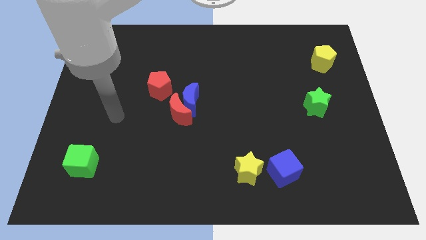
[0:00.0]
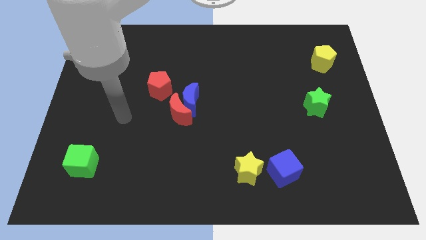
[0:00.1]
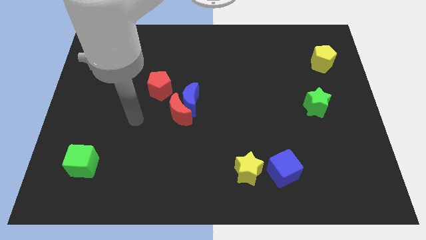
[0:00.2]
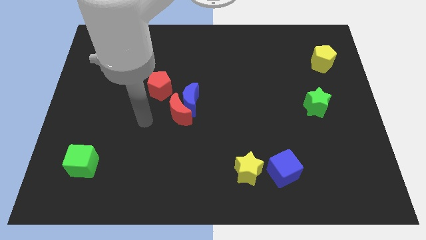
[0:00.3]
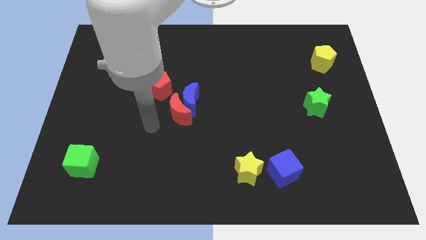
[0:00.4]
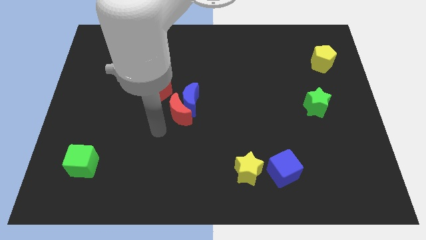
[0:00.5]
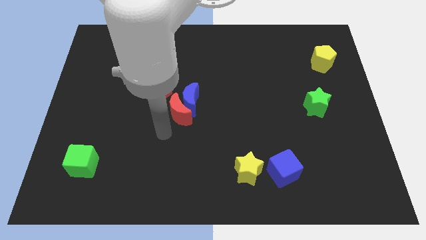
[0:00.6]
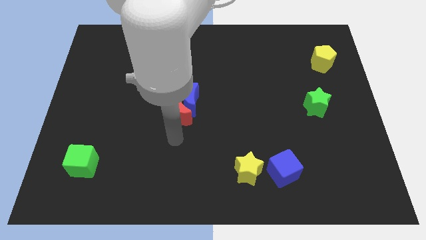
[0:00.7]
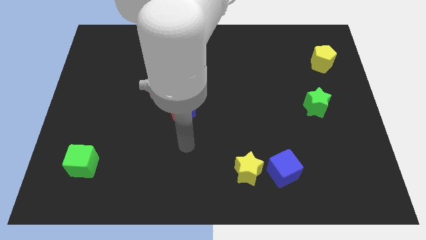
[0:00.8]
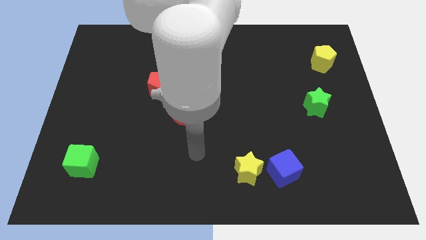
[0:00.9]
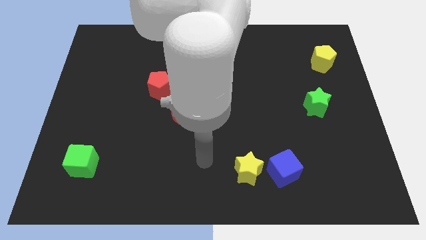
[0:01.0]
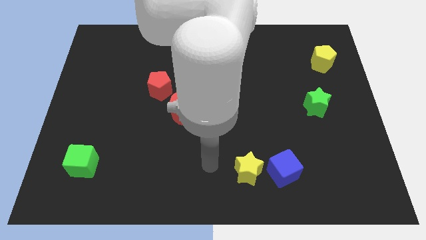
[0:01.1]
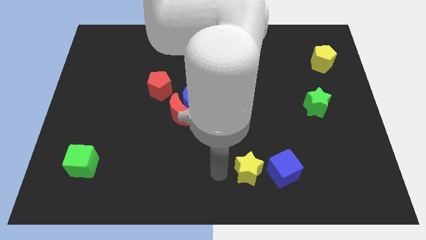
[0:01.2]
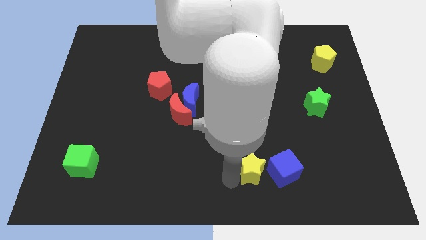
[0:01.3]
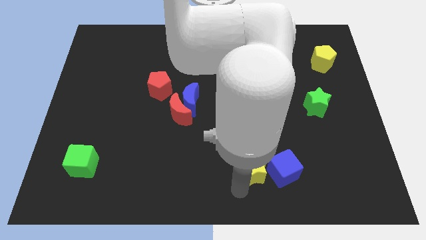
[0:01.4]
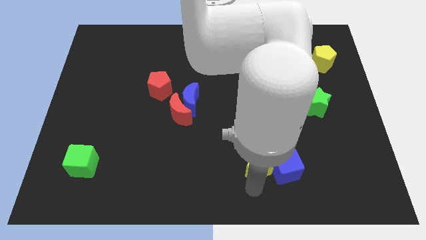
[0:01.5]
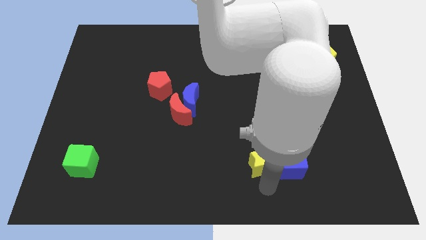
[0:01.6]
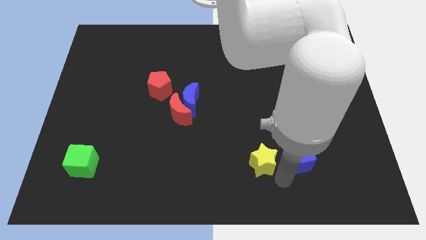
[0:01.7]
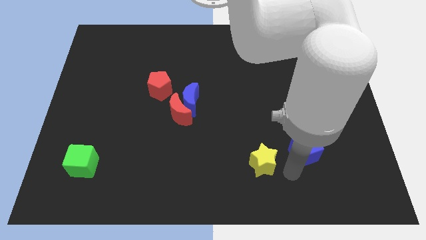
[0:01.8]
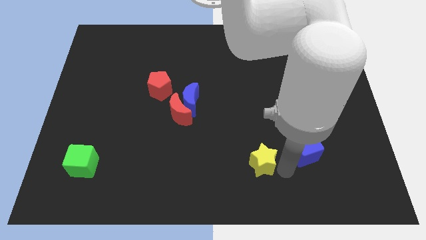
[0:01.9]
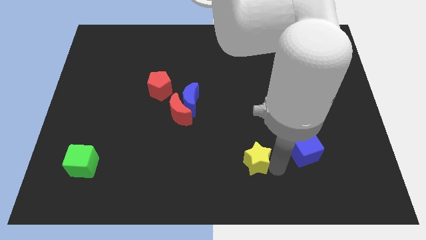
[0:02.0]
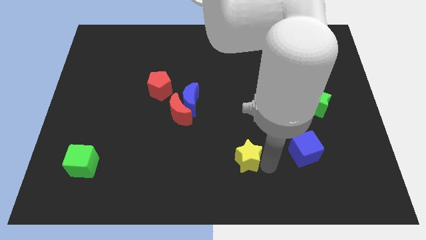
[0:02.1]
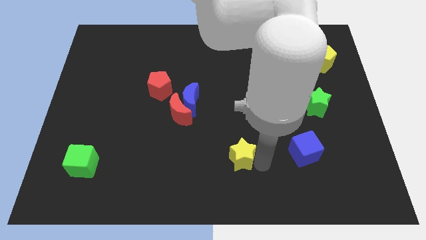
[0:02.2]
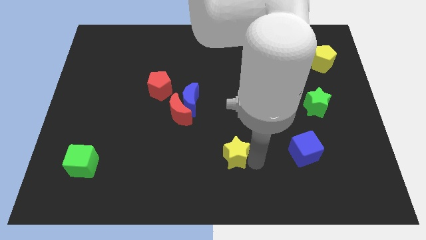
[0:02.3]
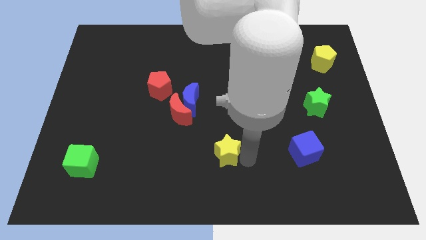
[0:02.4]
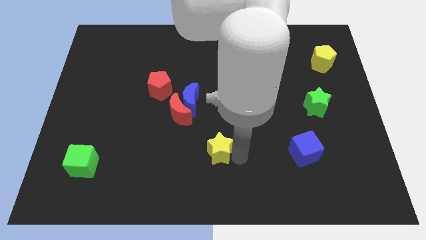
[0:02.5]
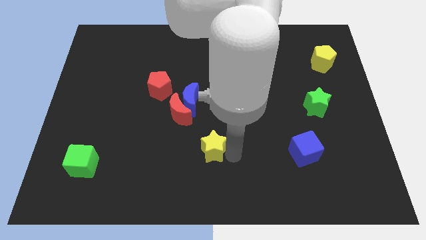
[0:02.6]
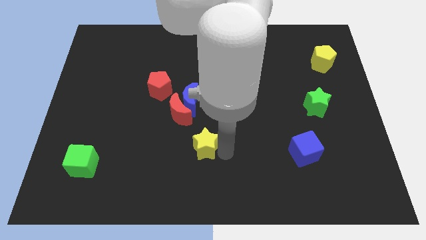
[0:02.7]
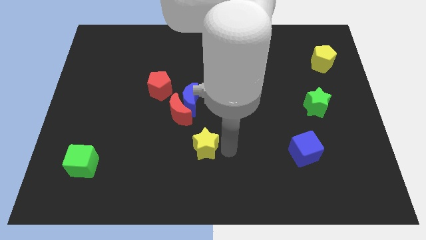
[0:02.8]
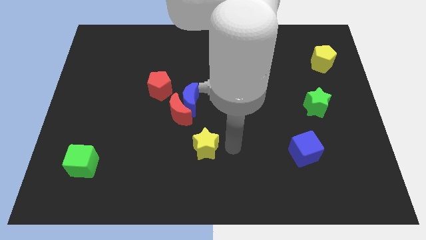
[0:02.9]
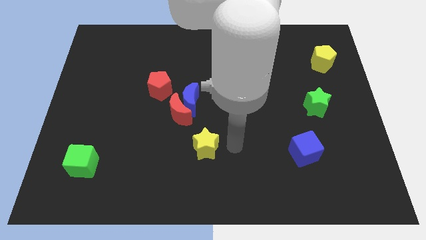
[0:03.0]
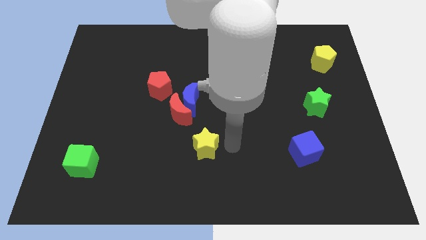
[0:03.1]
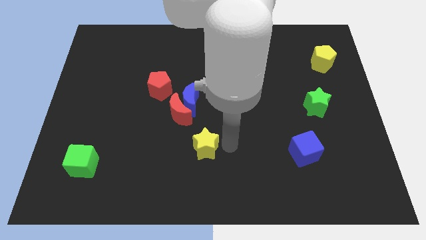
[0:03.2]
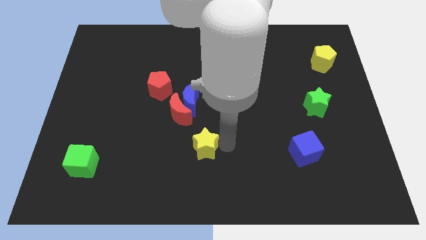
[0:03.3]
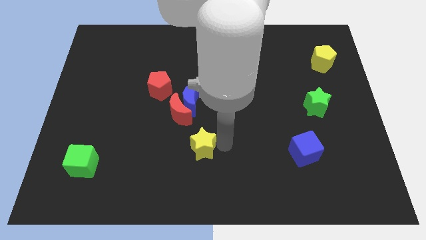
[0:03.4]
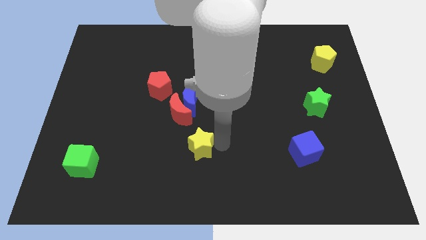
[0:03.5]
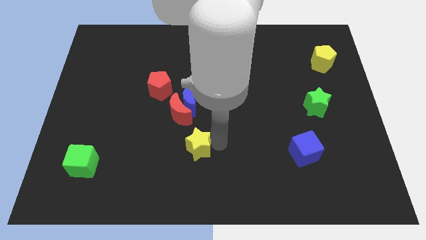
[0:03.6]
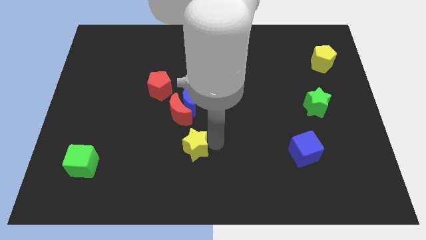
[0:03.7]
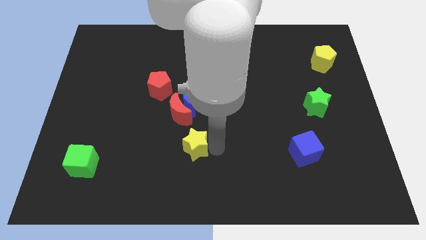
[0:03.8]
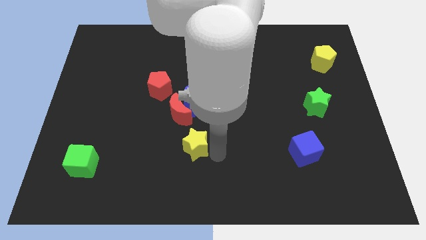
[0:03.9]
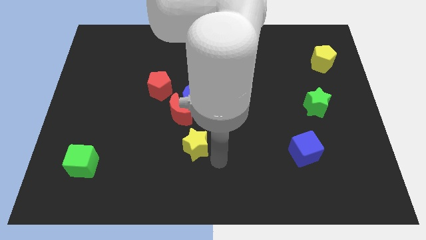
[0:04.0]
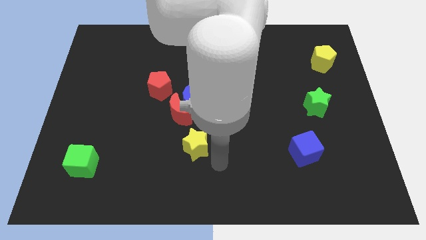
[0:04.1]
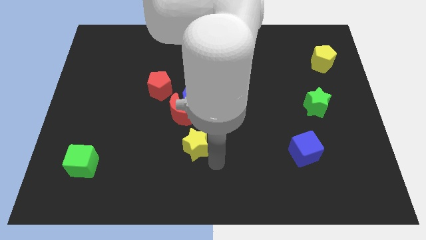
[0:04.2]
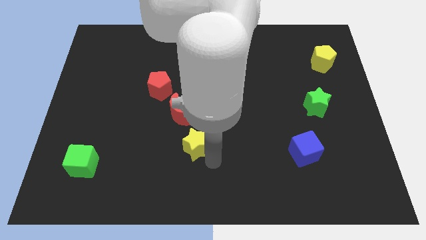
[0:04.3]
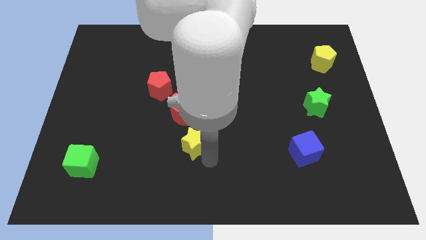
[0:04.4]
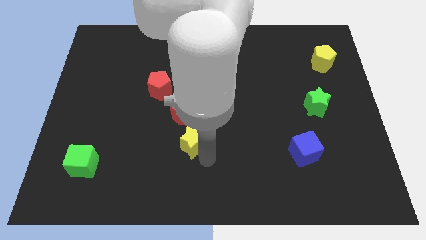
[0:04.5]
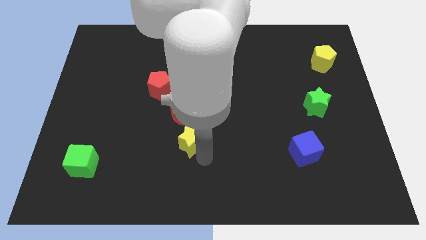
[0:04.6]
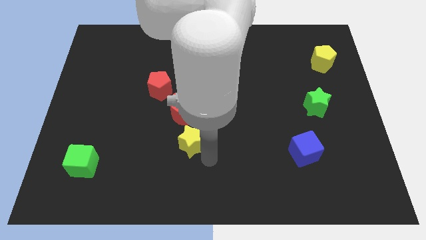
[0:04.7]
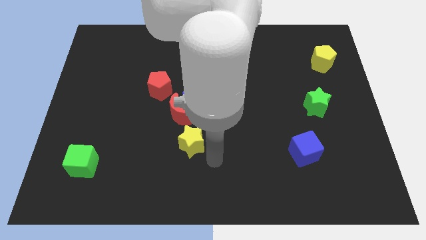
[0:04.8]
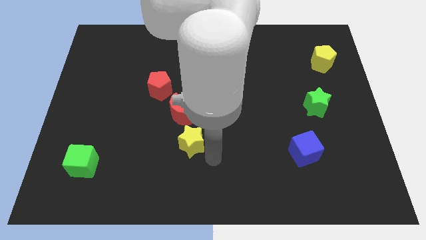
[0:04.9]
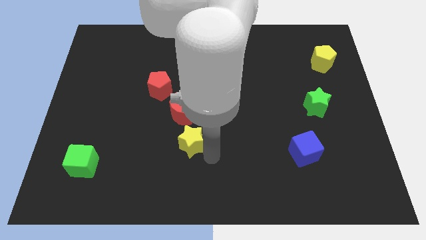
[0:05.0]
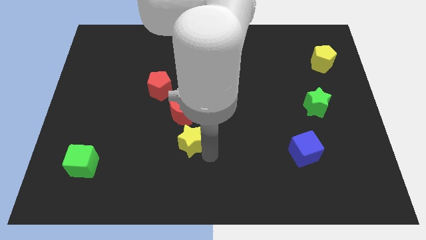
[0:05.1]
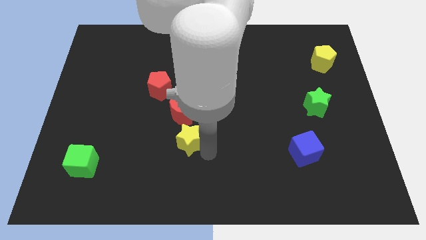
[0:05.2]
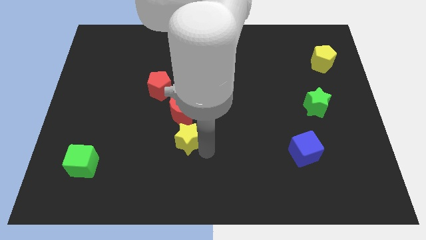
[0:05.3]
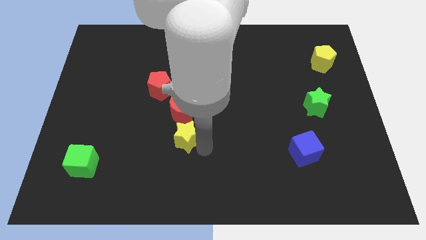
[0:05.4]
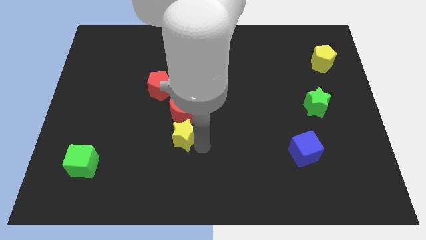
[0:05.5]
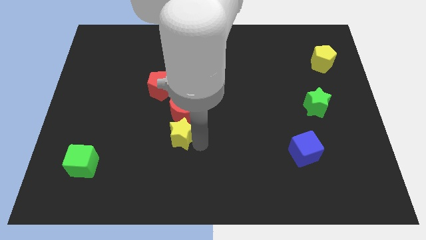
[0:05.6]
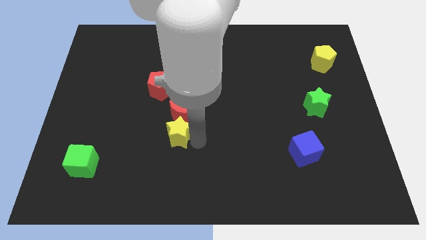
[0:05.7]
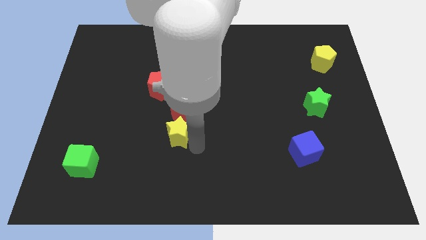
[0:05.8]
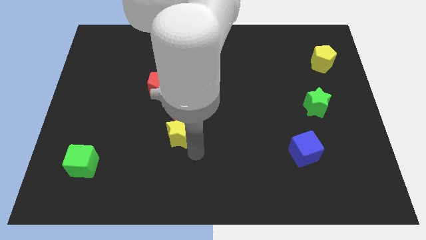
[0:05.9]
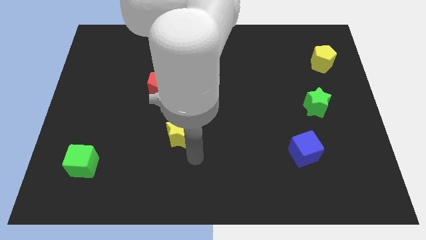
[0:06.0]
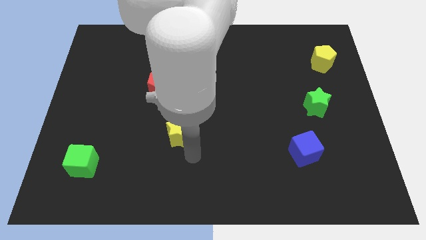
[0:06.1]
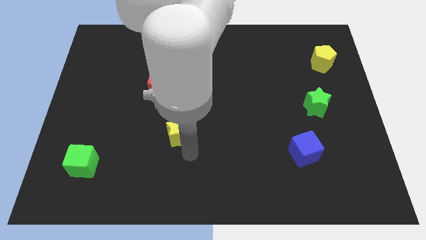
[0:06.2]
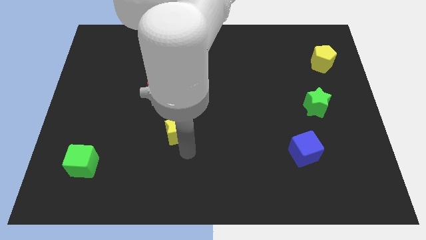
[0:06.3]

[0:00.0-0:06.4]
put the yellow star diagonally down and to the left of the blue moon

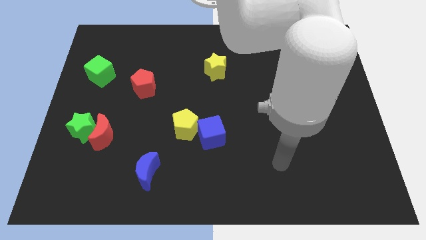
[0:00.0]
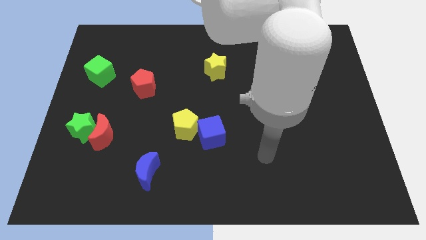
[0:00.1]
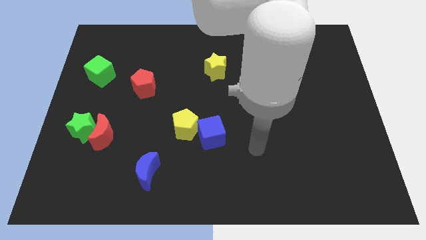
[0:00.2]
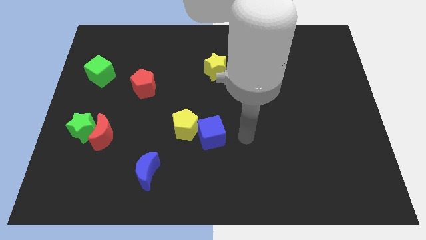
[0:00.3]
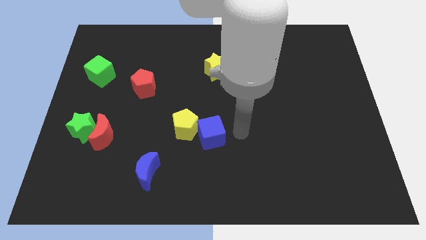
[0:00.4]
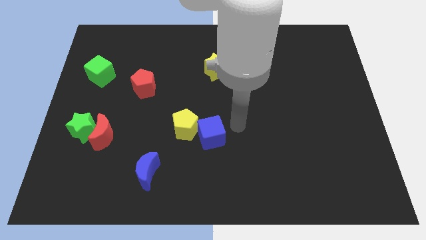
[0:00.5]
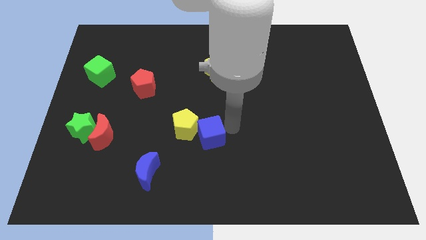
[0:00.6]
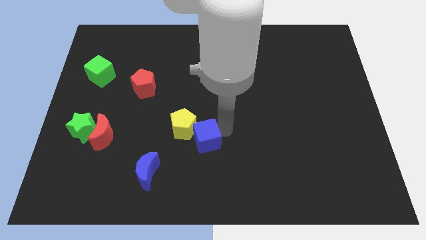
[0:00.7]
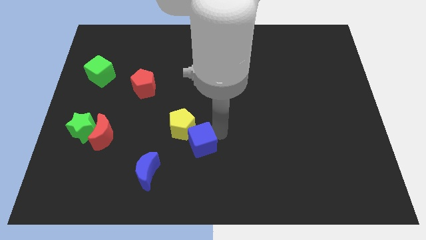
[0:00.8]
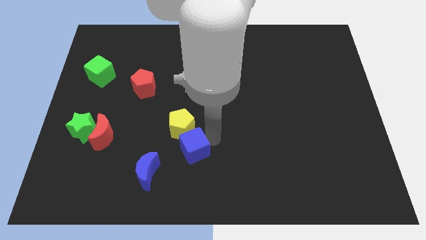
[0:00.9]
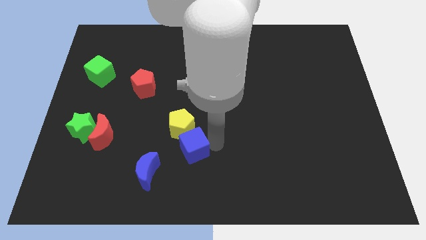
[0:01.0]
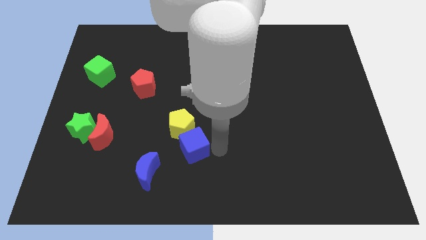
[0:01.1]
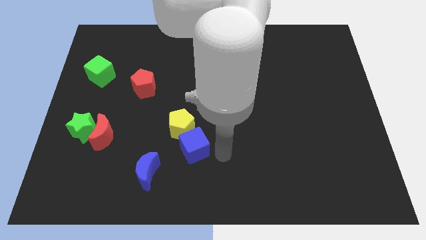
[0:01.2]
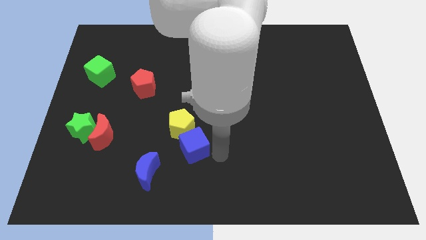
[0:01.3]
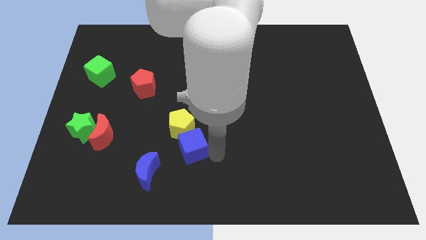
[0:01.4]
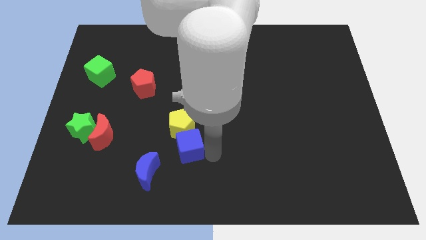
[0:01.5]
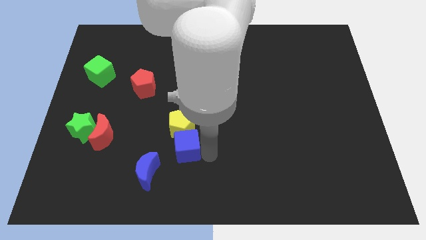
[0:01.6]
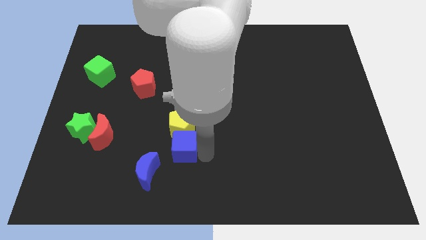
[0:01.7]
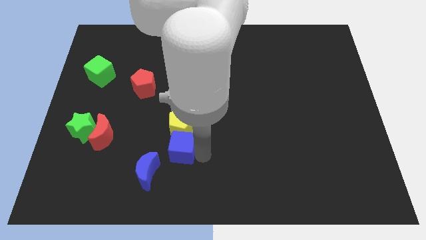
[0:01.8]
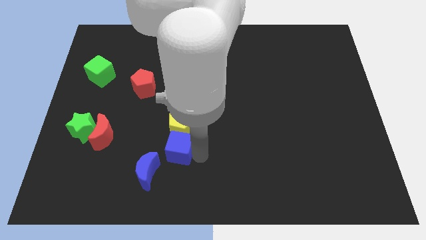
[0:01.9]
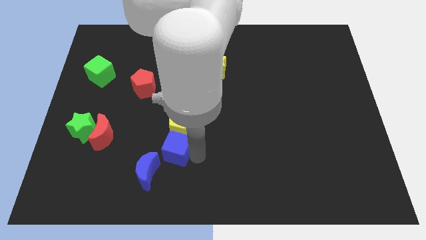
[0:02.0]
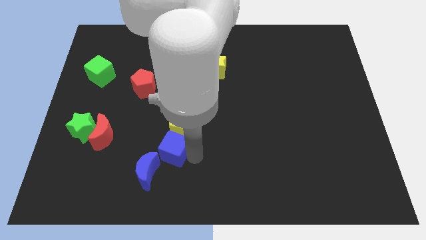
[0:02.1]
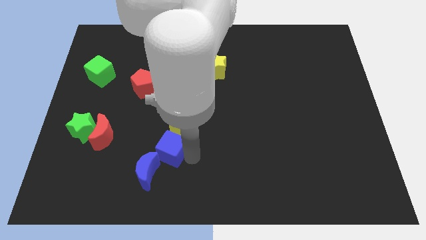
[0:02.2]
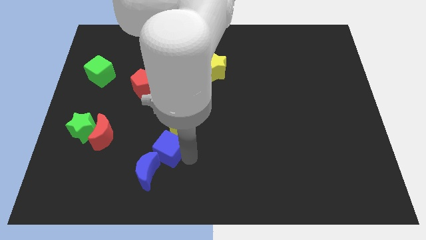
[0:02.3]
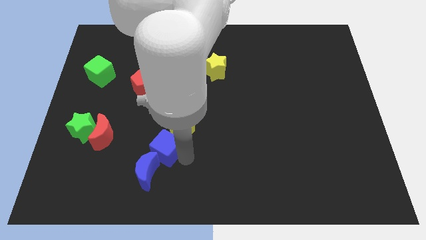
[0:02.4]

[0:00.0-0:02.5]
push the blue cube right of the red moon
